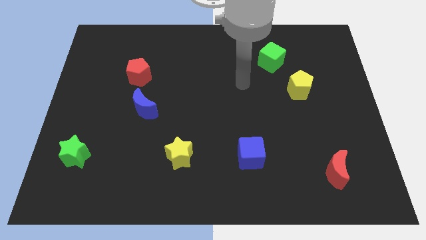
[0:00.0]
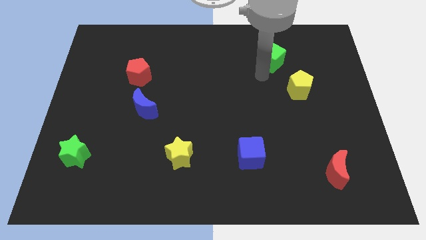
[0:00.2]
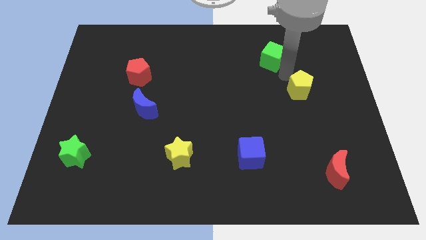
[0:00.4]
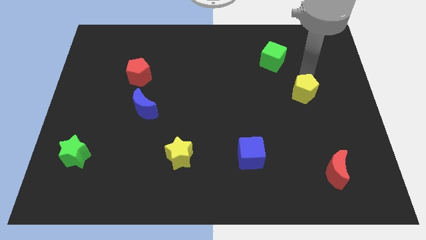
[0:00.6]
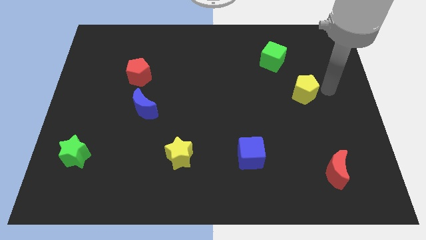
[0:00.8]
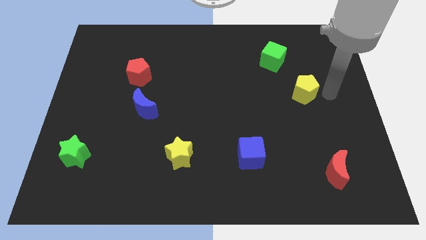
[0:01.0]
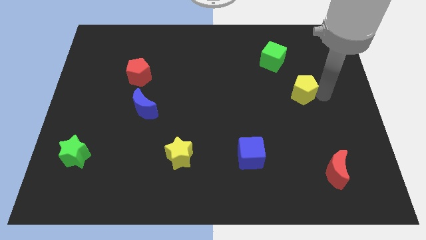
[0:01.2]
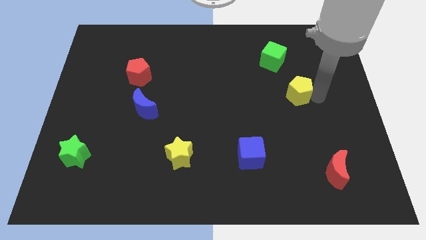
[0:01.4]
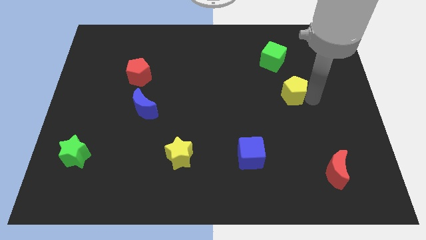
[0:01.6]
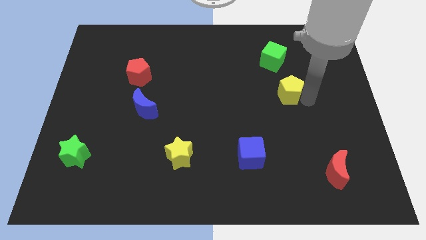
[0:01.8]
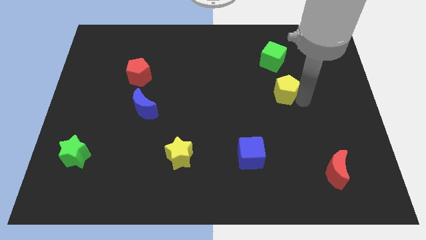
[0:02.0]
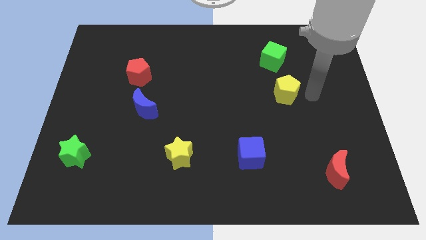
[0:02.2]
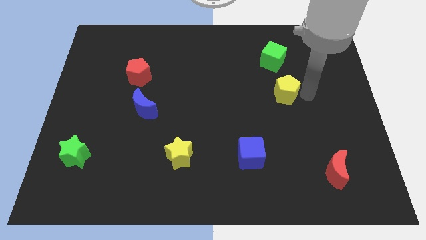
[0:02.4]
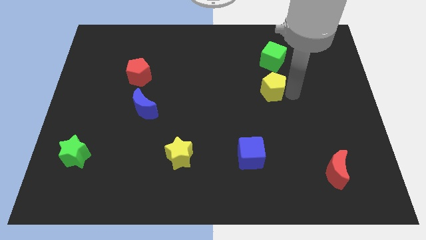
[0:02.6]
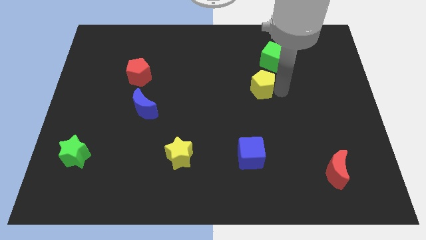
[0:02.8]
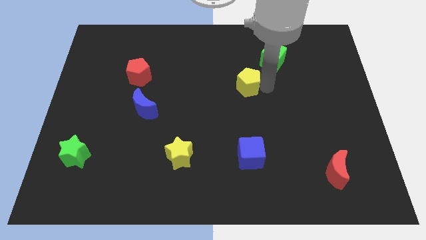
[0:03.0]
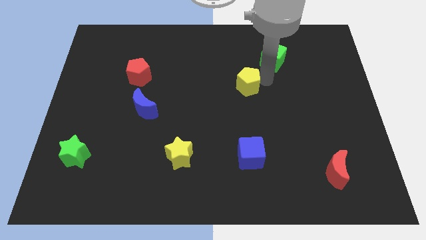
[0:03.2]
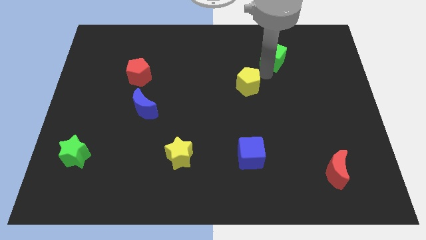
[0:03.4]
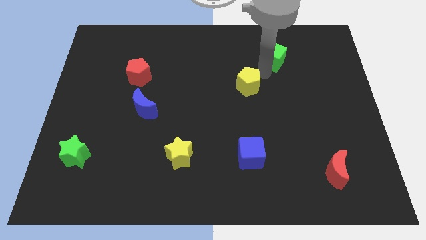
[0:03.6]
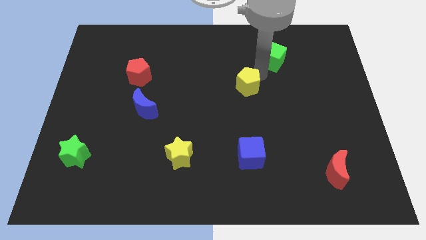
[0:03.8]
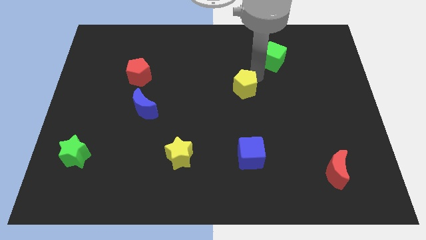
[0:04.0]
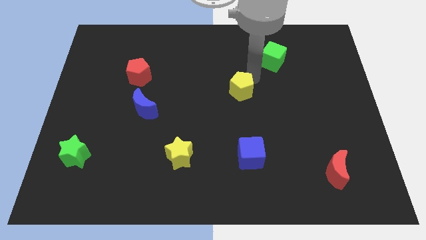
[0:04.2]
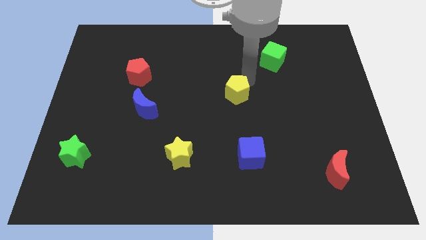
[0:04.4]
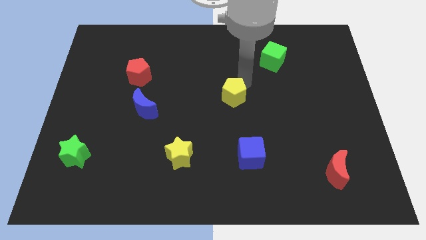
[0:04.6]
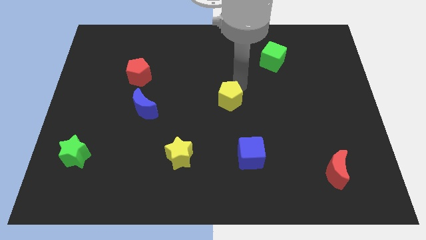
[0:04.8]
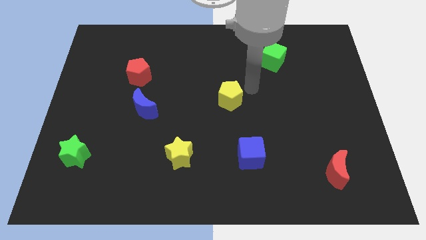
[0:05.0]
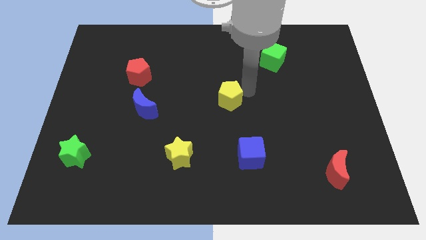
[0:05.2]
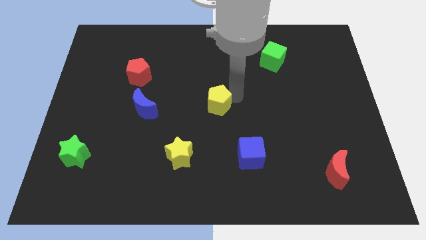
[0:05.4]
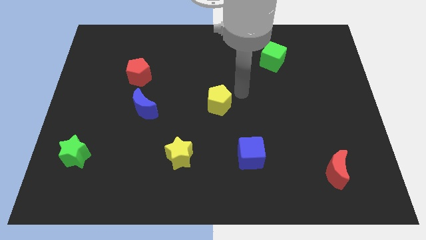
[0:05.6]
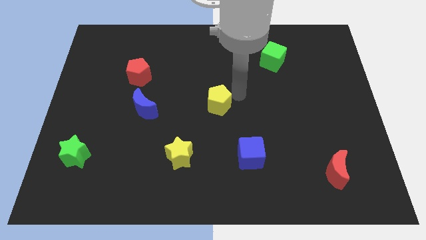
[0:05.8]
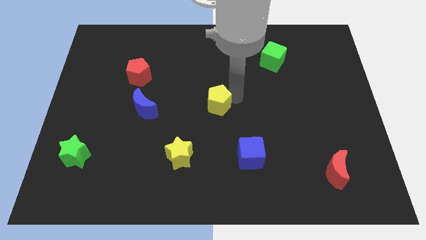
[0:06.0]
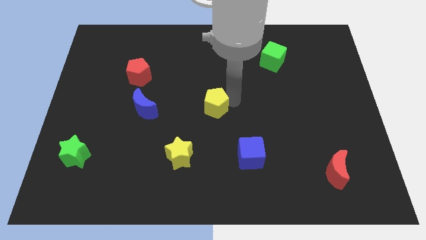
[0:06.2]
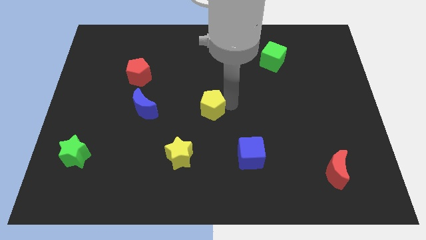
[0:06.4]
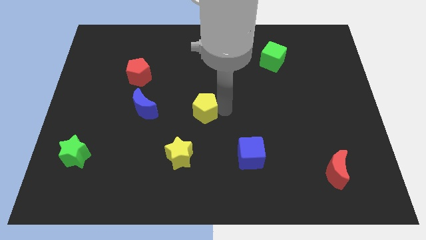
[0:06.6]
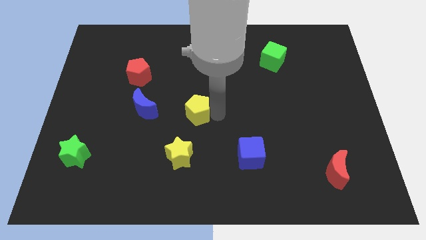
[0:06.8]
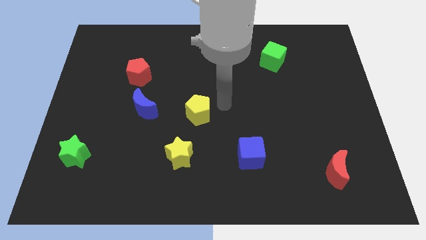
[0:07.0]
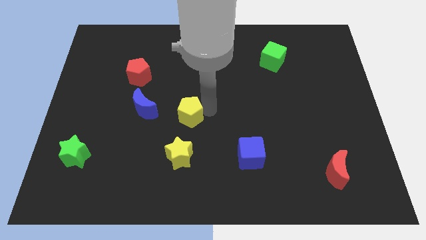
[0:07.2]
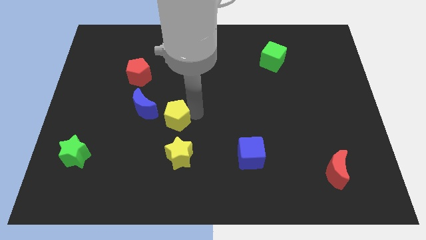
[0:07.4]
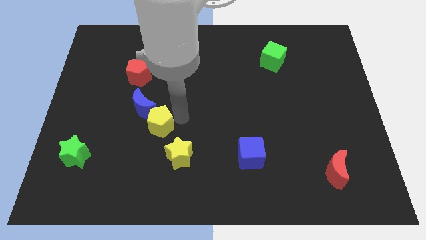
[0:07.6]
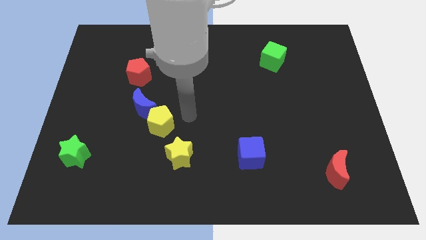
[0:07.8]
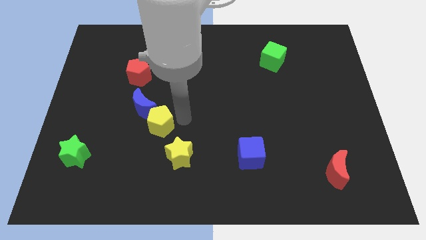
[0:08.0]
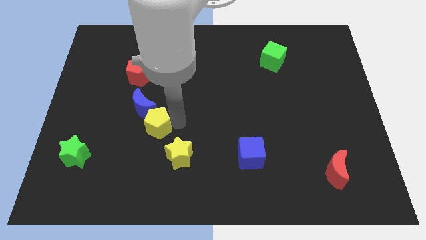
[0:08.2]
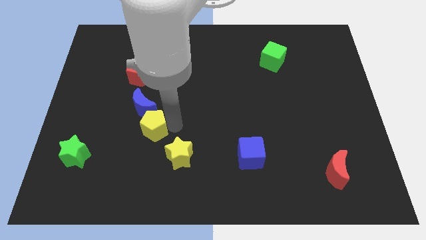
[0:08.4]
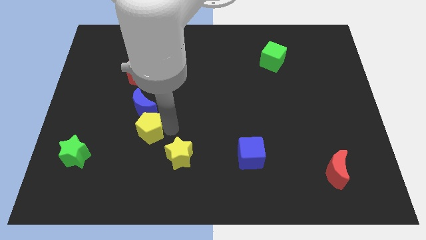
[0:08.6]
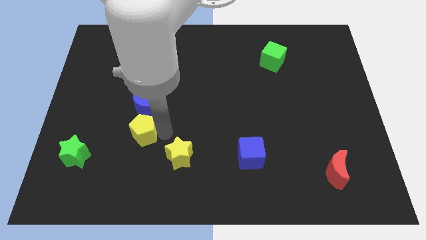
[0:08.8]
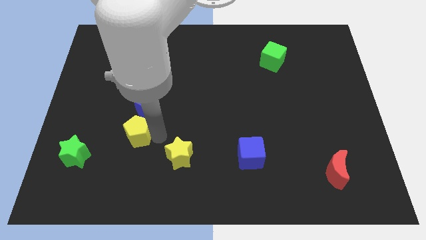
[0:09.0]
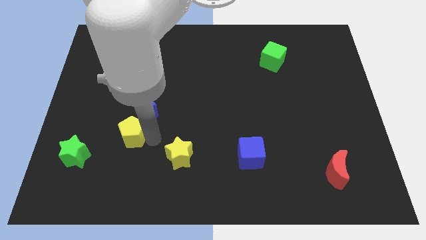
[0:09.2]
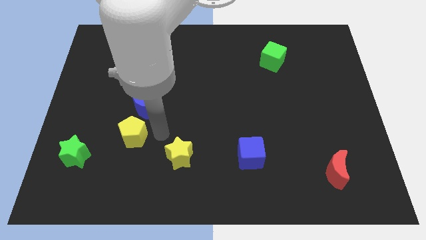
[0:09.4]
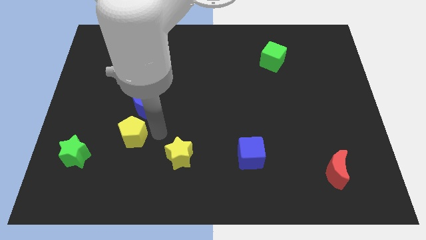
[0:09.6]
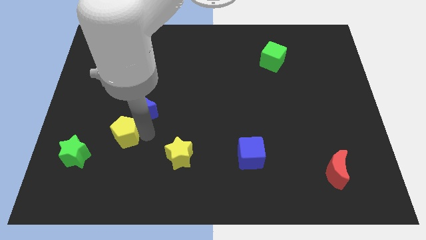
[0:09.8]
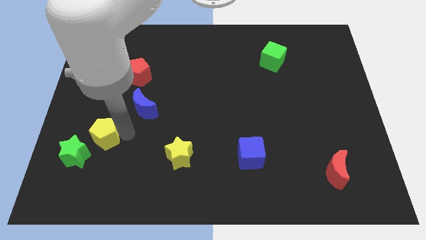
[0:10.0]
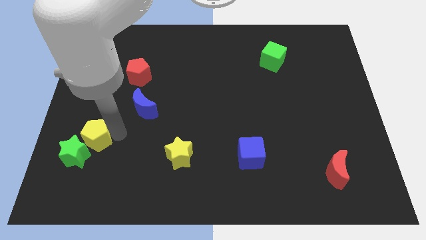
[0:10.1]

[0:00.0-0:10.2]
slide the yellow pentagon next to the green star

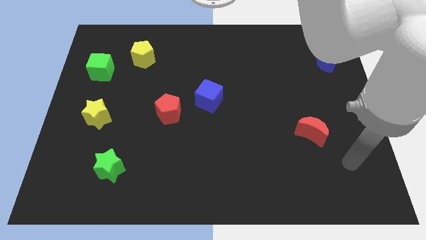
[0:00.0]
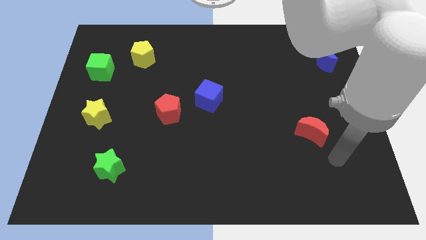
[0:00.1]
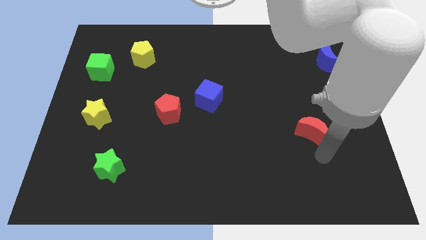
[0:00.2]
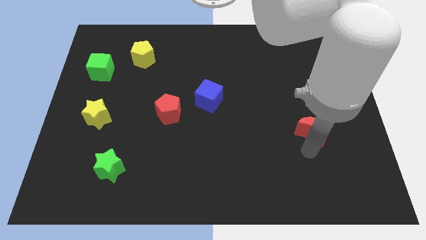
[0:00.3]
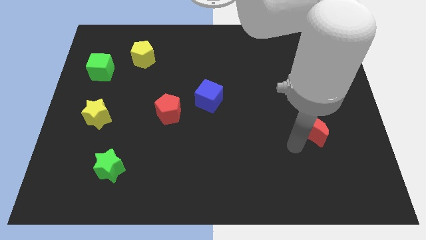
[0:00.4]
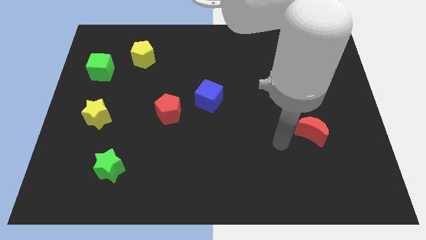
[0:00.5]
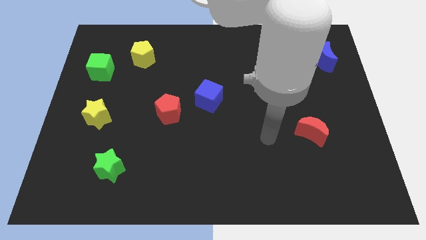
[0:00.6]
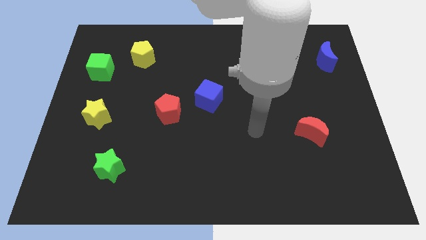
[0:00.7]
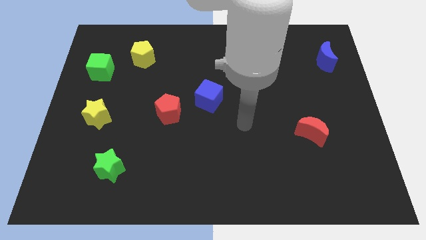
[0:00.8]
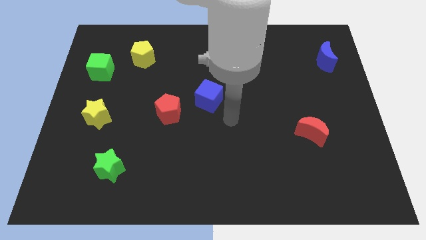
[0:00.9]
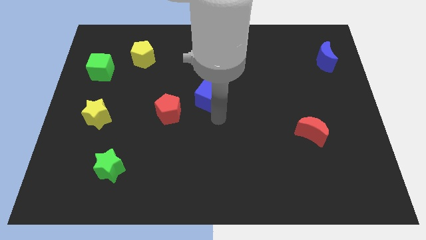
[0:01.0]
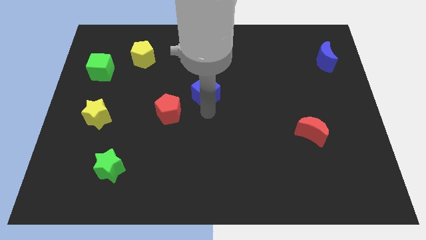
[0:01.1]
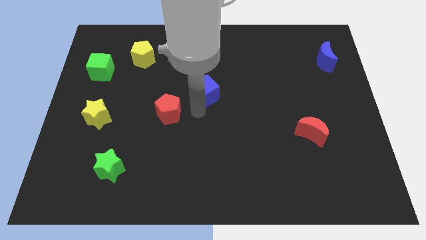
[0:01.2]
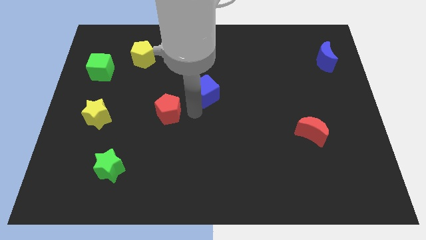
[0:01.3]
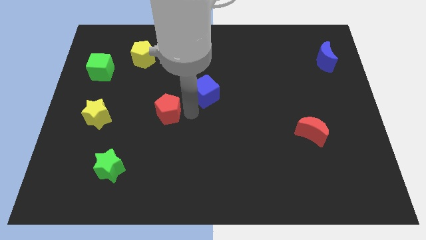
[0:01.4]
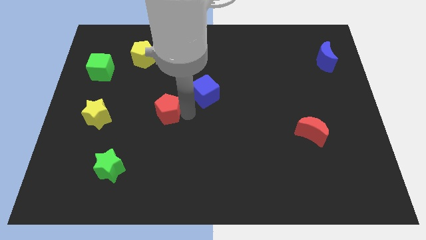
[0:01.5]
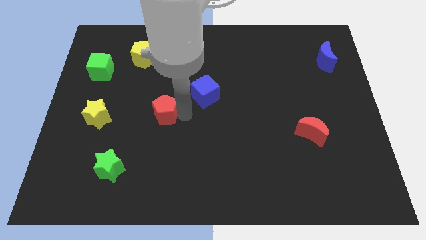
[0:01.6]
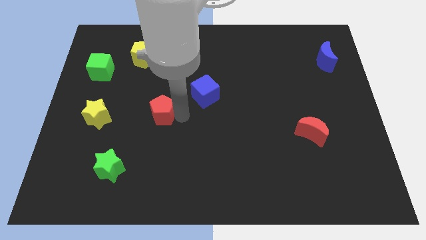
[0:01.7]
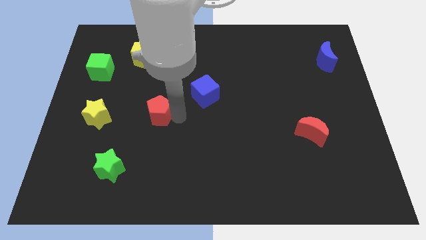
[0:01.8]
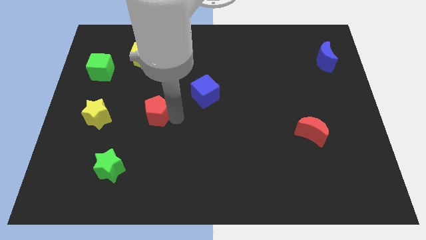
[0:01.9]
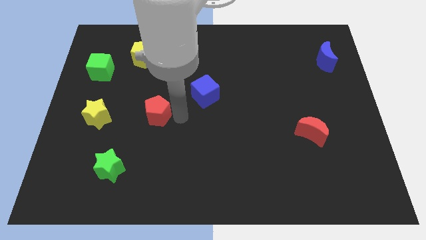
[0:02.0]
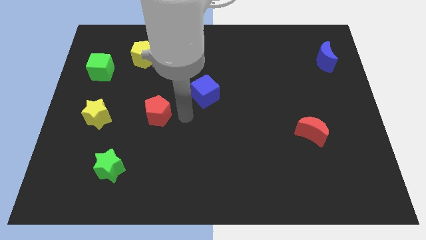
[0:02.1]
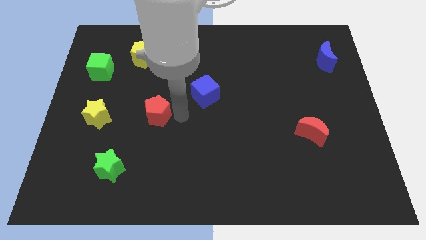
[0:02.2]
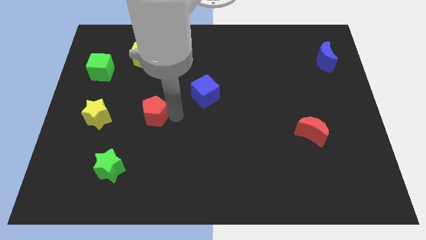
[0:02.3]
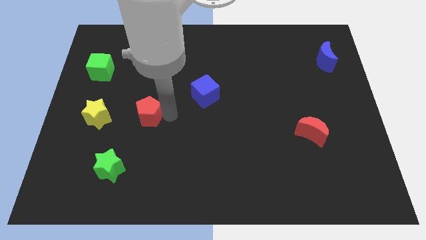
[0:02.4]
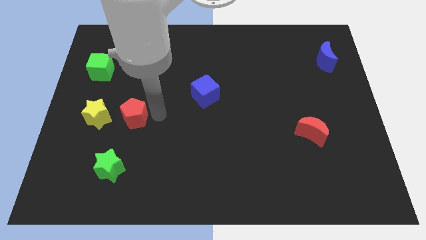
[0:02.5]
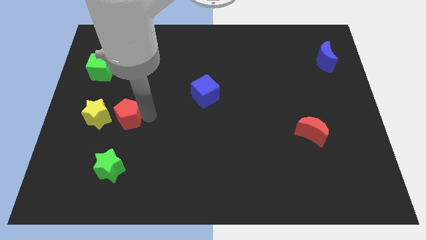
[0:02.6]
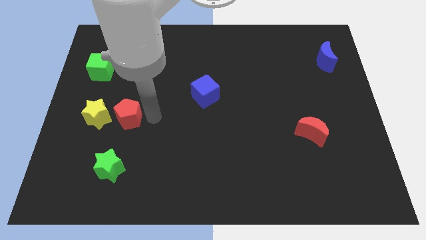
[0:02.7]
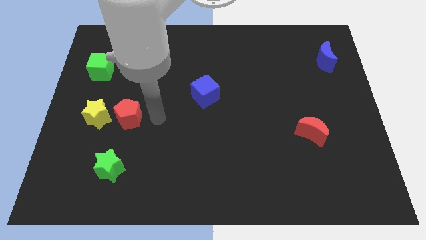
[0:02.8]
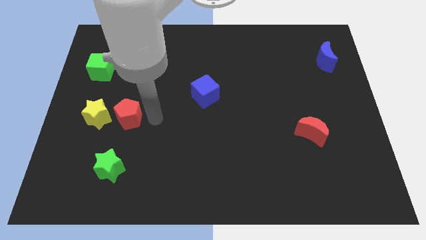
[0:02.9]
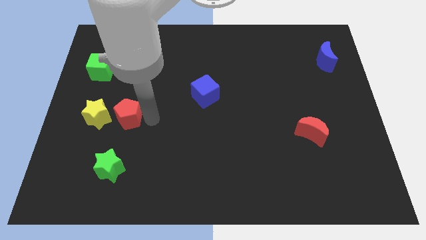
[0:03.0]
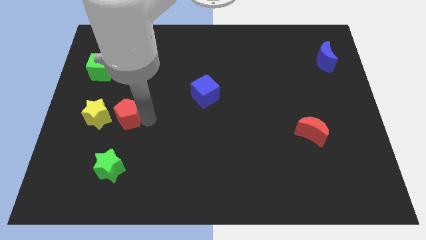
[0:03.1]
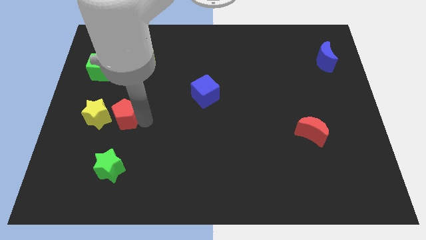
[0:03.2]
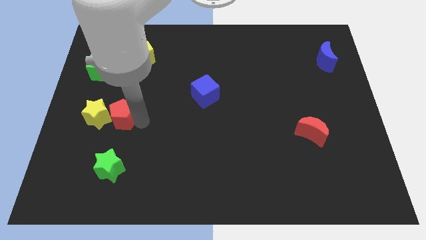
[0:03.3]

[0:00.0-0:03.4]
slide the red pentagon close to the yellow star
